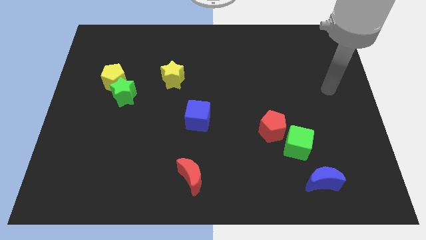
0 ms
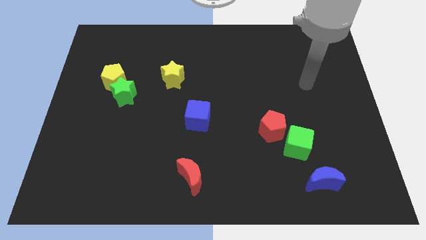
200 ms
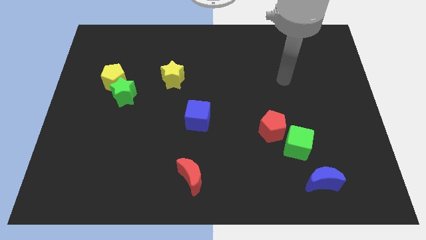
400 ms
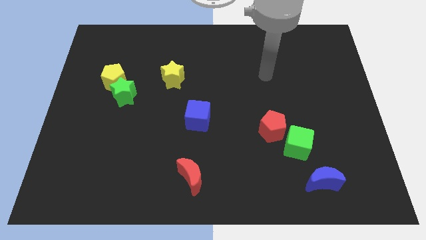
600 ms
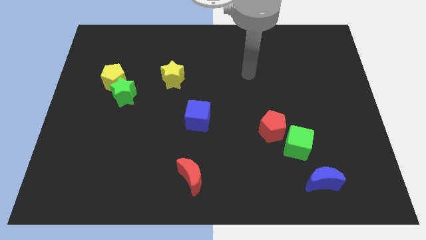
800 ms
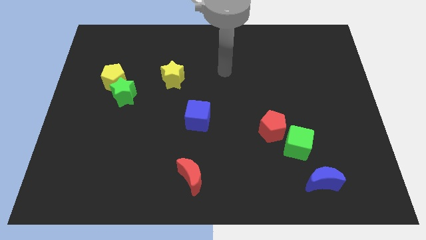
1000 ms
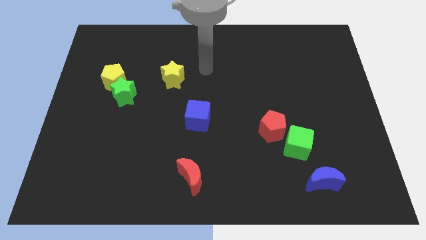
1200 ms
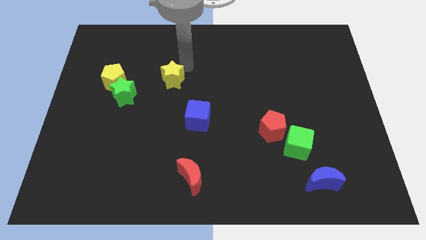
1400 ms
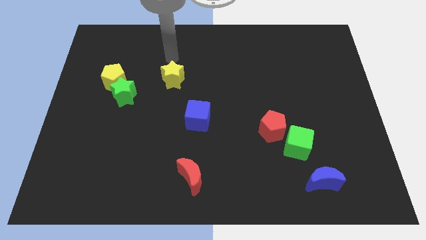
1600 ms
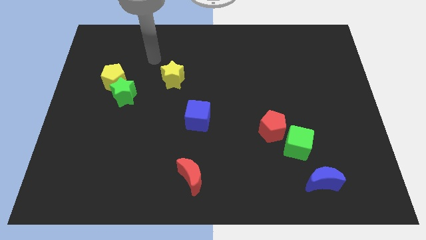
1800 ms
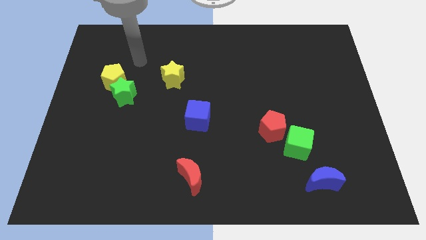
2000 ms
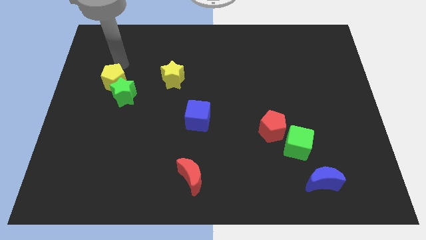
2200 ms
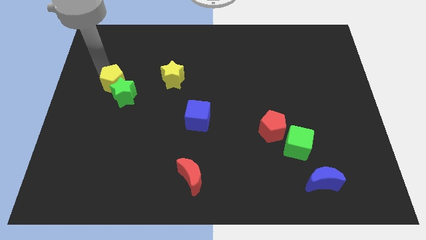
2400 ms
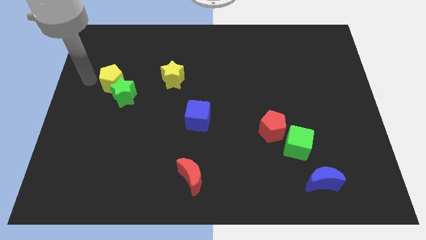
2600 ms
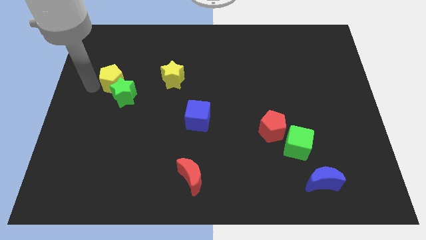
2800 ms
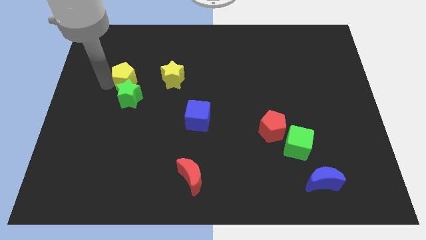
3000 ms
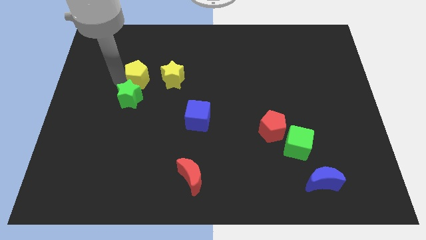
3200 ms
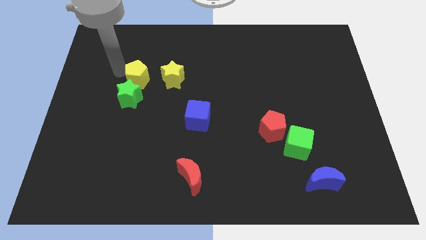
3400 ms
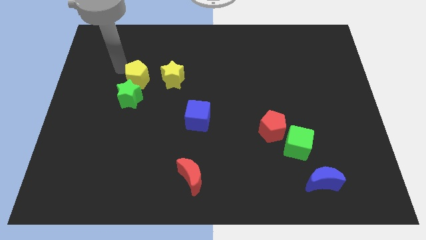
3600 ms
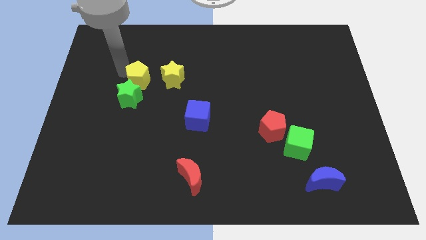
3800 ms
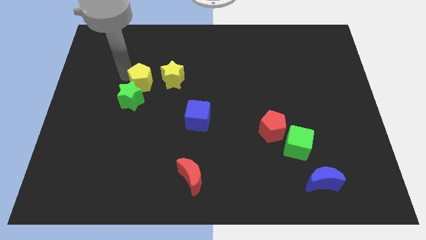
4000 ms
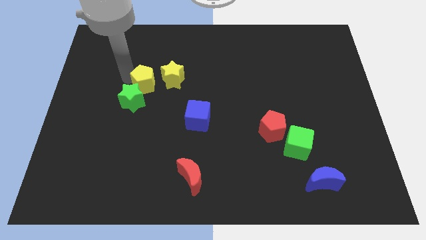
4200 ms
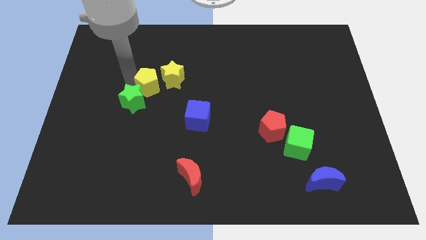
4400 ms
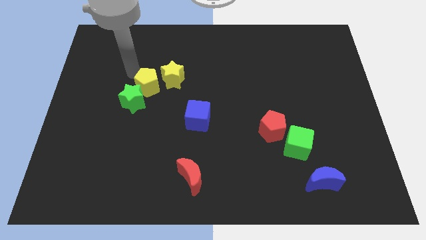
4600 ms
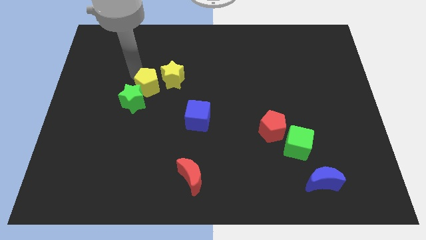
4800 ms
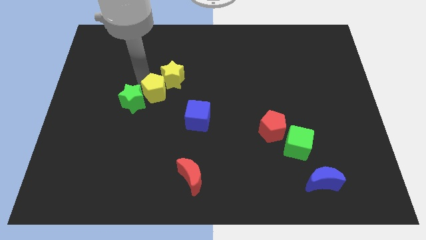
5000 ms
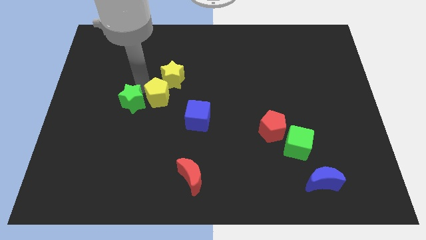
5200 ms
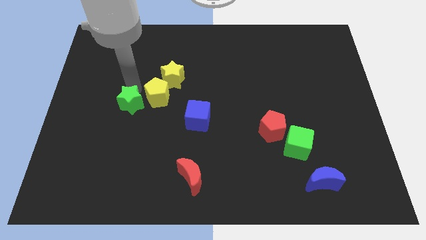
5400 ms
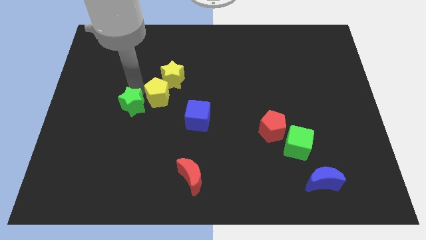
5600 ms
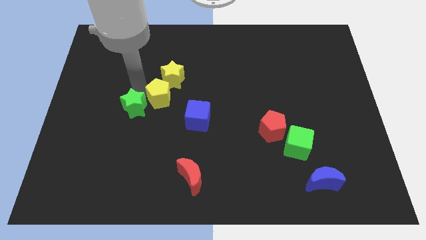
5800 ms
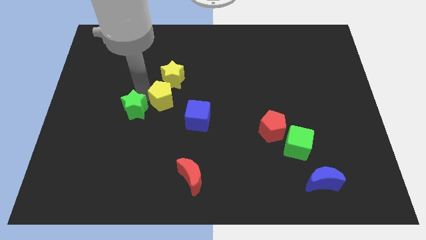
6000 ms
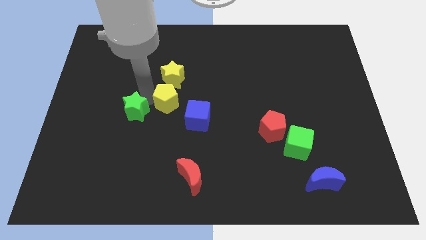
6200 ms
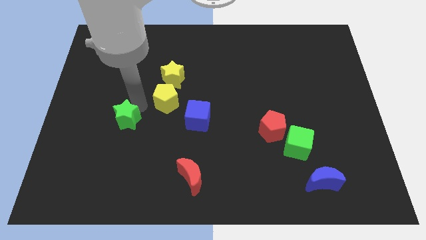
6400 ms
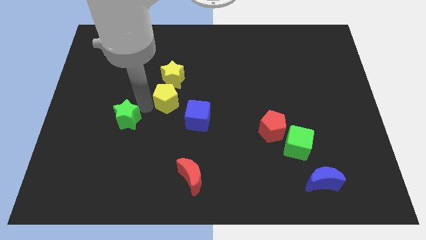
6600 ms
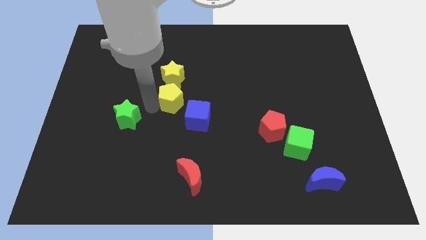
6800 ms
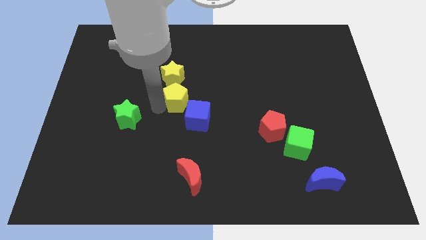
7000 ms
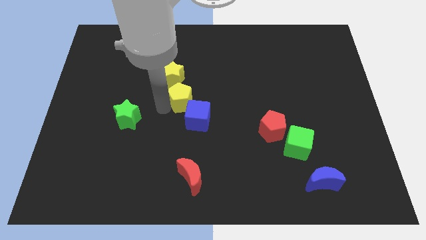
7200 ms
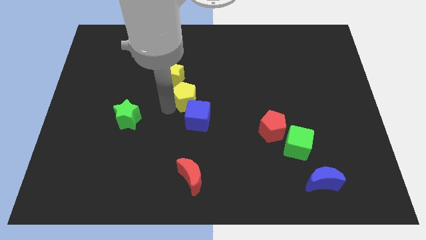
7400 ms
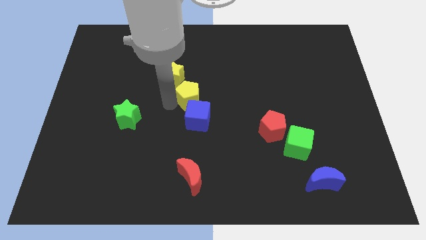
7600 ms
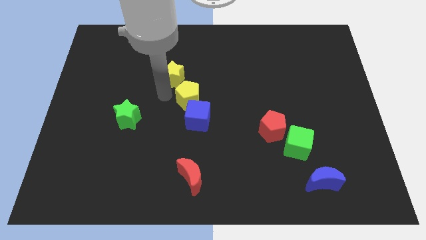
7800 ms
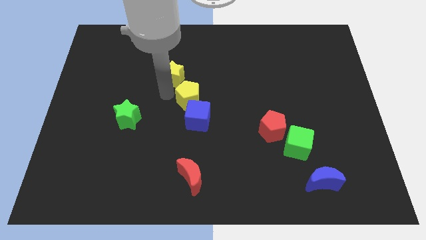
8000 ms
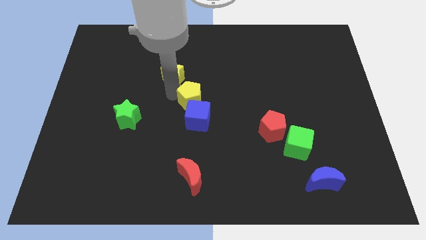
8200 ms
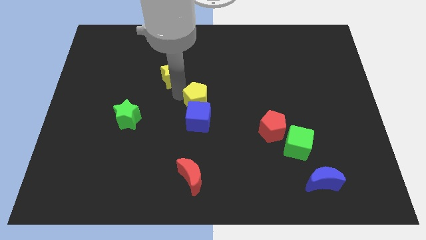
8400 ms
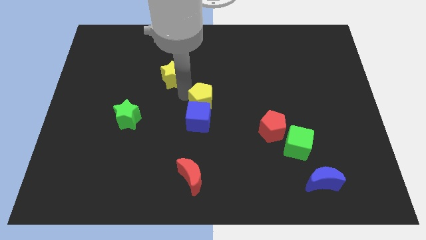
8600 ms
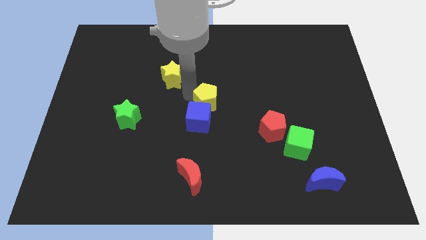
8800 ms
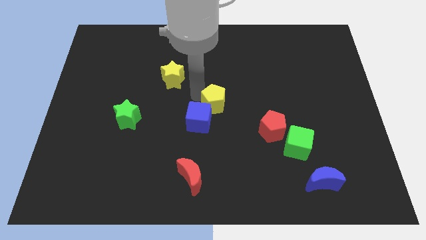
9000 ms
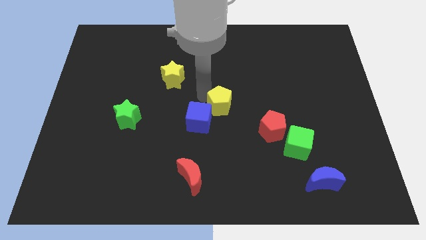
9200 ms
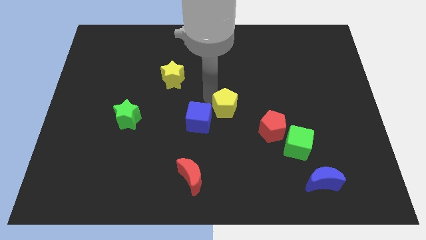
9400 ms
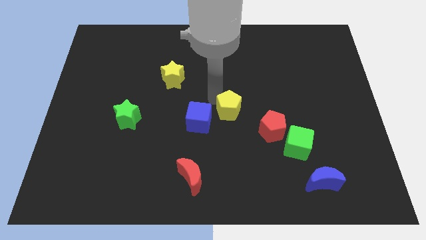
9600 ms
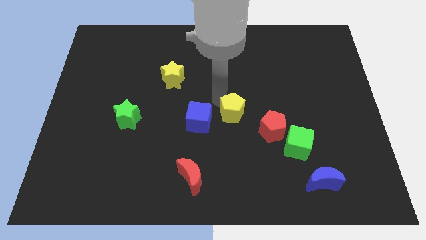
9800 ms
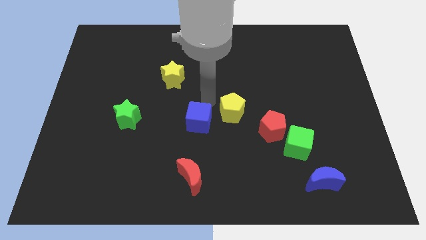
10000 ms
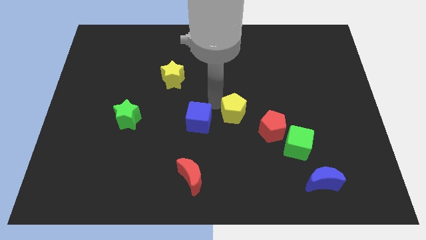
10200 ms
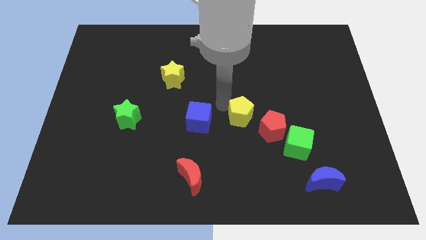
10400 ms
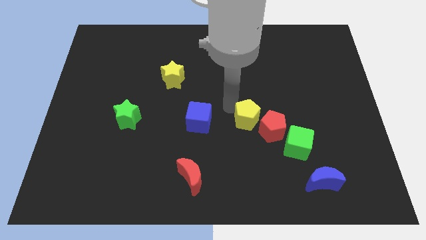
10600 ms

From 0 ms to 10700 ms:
push the yellow pentagon towards the red pentagon

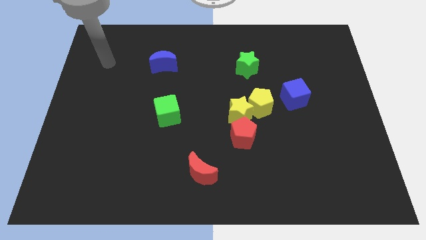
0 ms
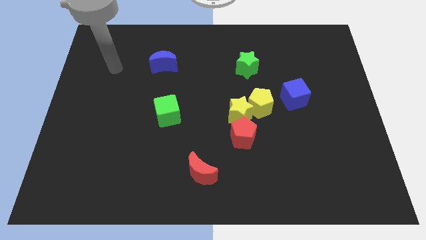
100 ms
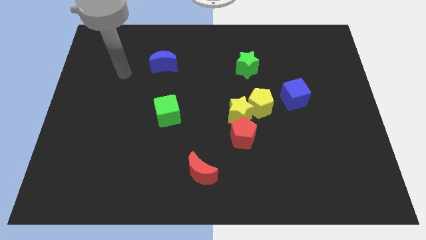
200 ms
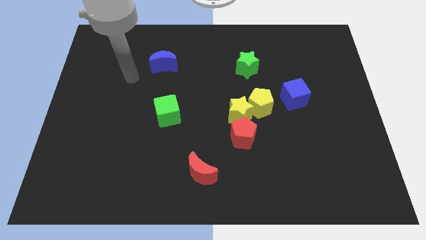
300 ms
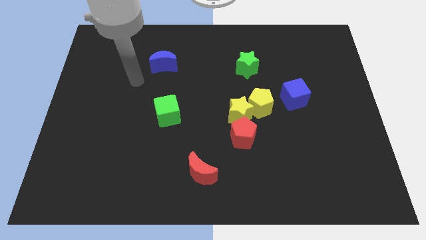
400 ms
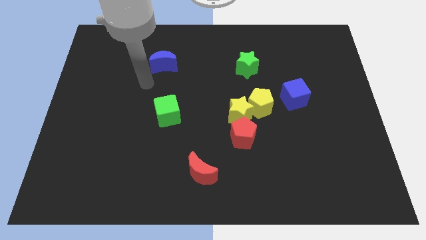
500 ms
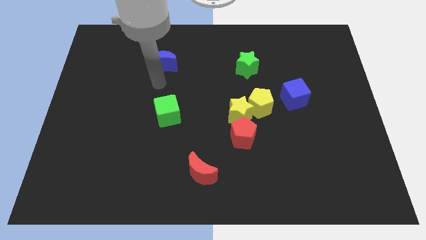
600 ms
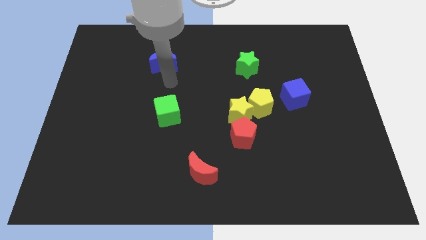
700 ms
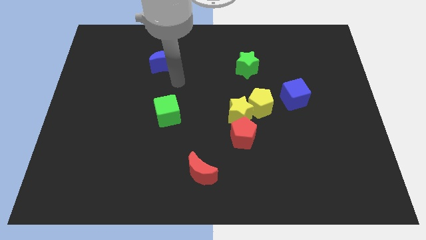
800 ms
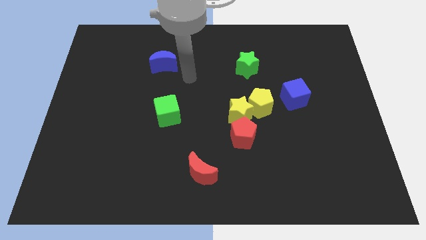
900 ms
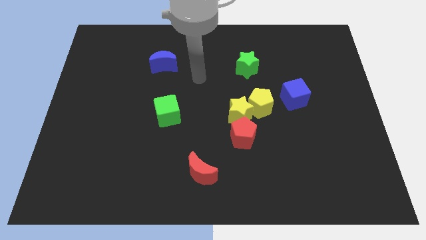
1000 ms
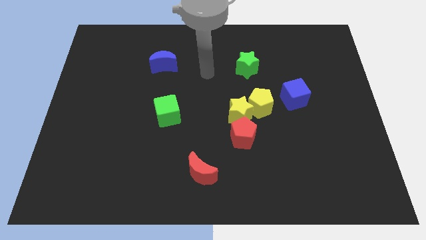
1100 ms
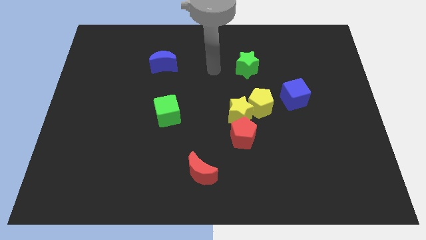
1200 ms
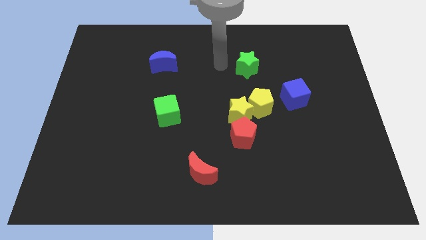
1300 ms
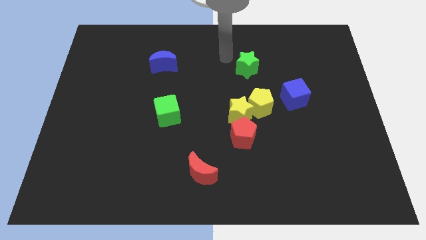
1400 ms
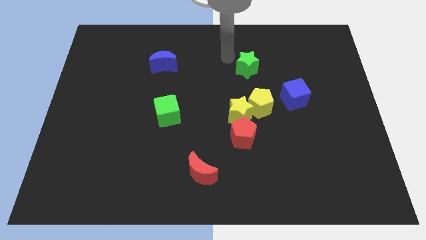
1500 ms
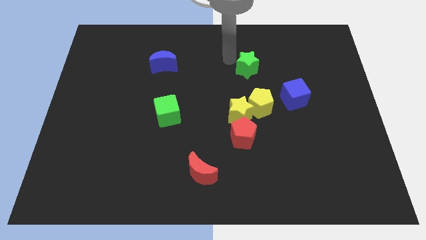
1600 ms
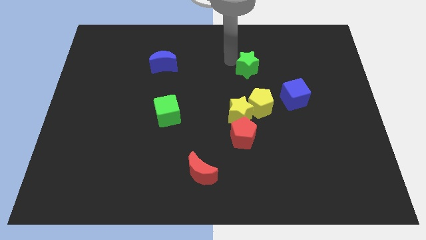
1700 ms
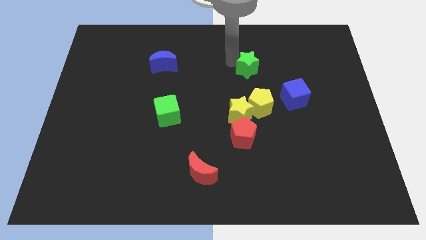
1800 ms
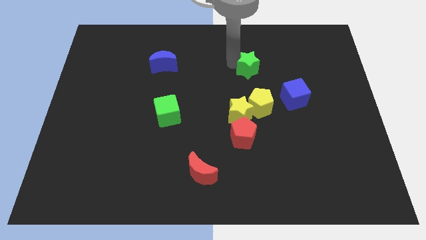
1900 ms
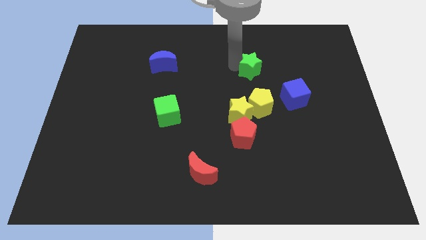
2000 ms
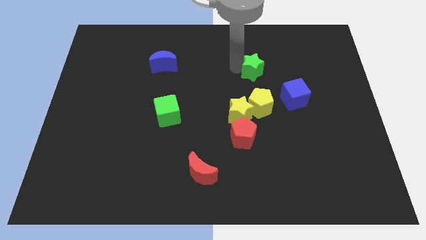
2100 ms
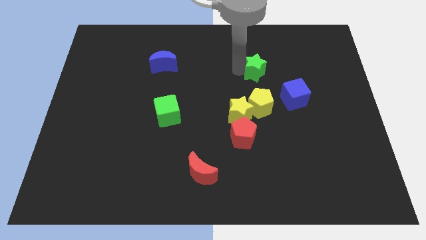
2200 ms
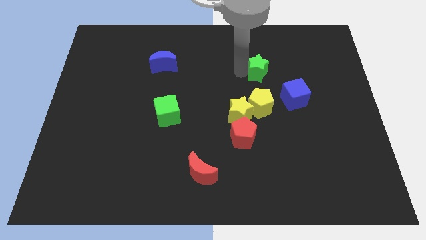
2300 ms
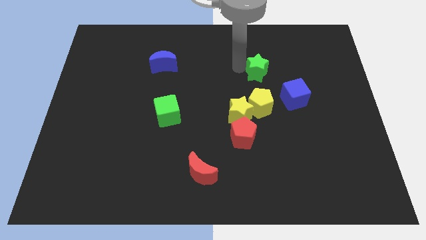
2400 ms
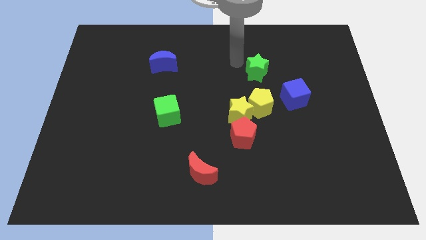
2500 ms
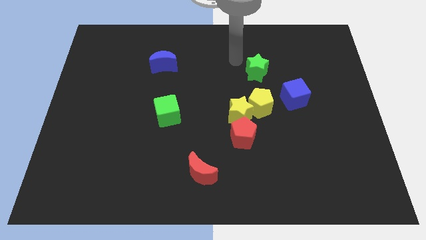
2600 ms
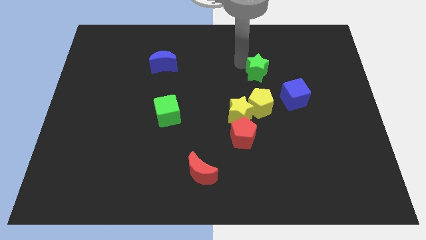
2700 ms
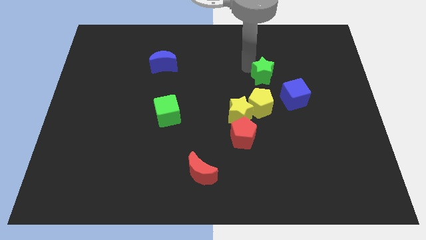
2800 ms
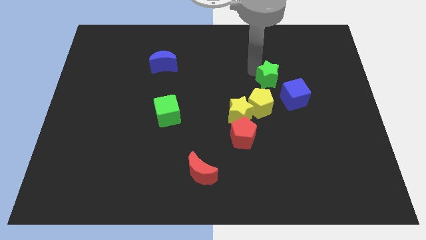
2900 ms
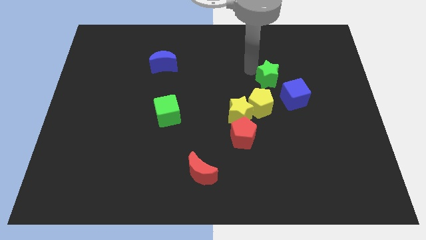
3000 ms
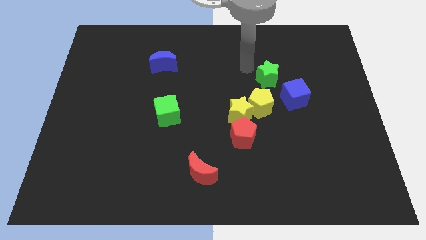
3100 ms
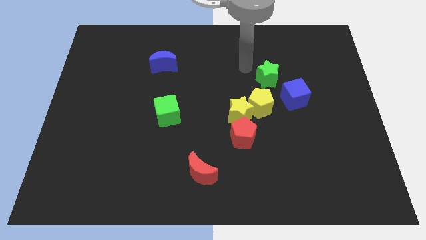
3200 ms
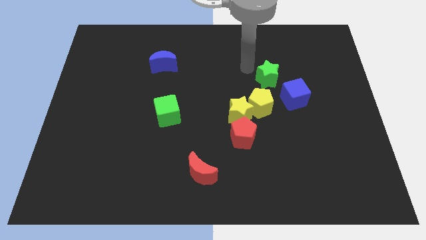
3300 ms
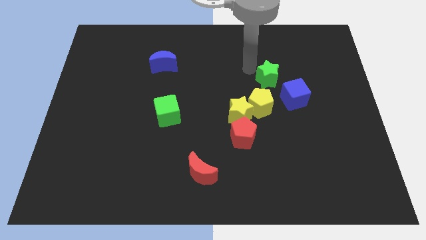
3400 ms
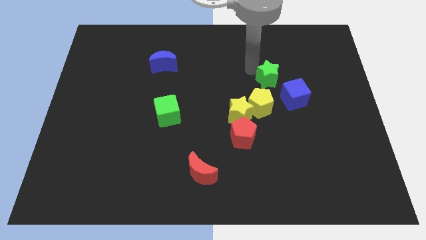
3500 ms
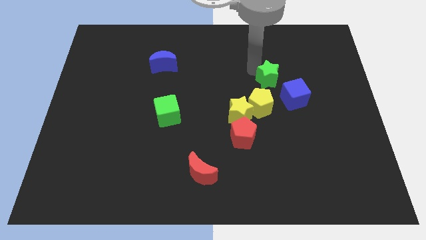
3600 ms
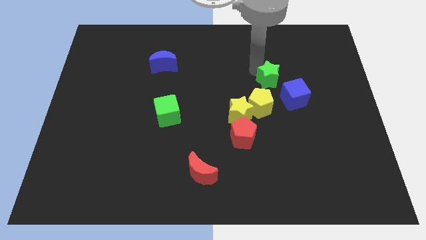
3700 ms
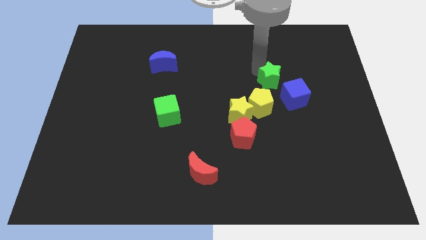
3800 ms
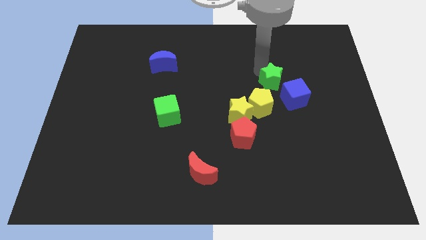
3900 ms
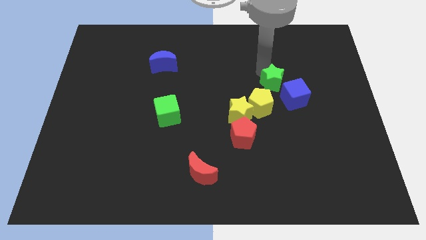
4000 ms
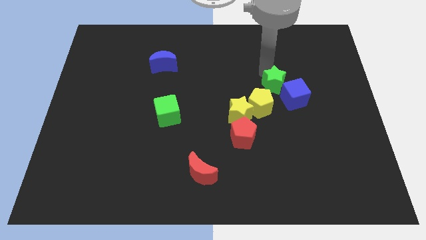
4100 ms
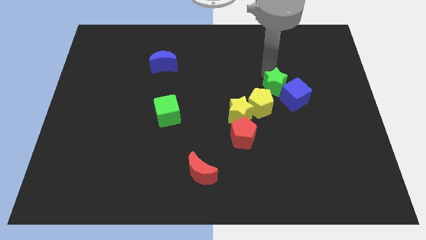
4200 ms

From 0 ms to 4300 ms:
push the green star towards the blue cube
